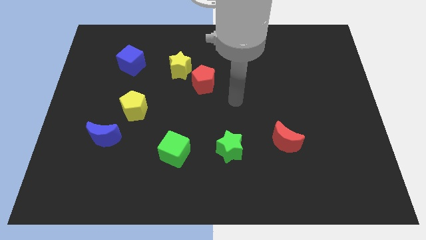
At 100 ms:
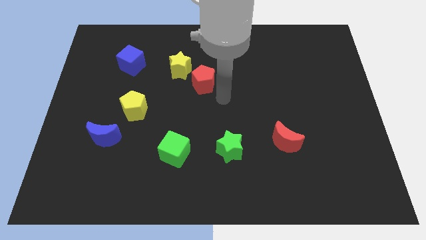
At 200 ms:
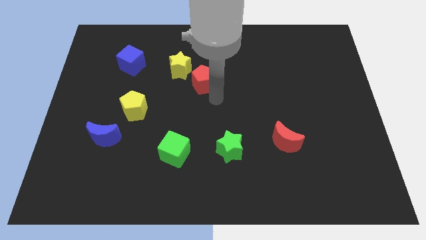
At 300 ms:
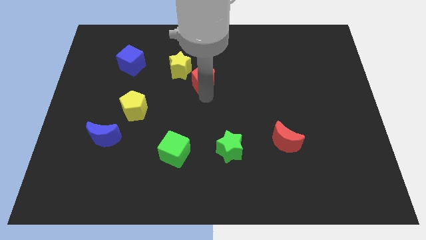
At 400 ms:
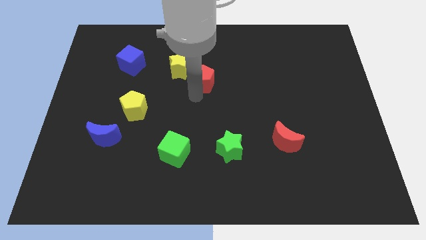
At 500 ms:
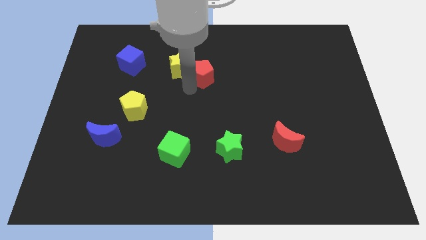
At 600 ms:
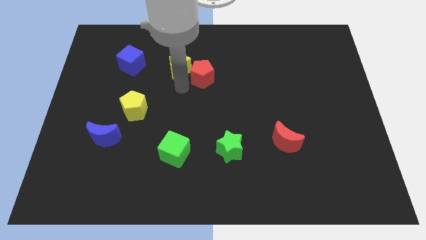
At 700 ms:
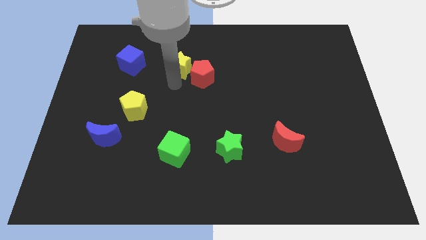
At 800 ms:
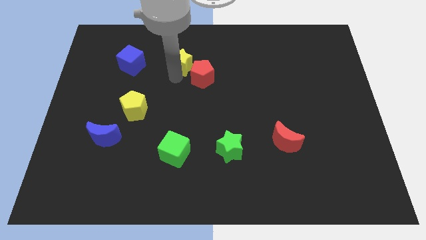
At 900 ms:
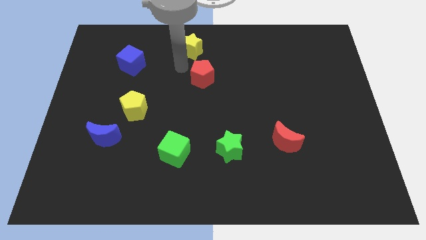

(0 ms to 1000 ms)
pull the red pentagon apart from the yellow star

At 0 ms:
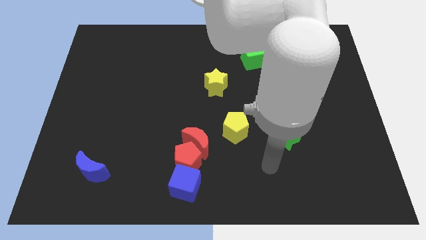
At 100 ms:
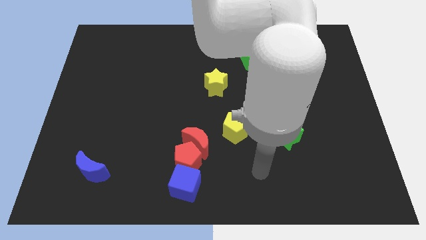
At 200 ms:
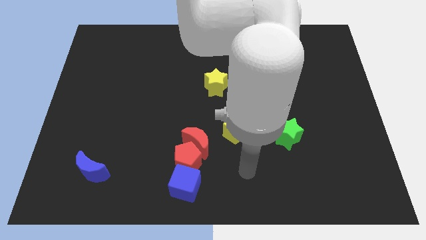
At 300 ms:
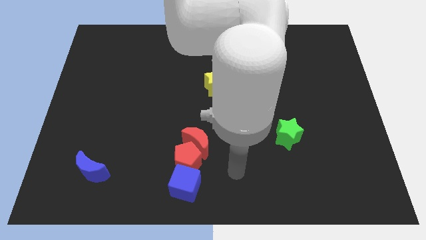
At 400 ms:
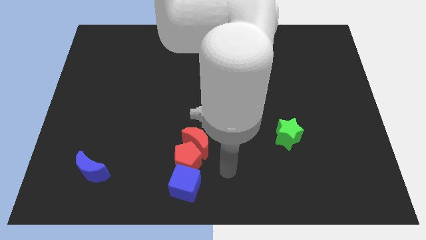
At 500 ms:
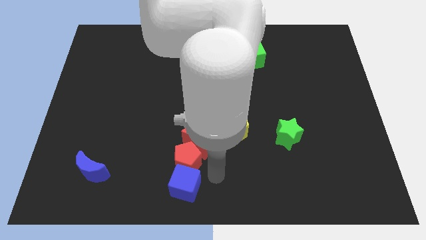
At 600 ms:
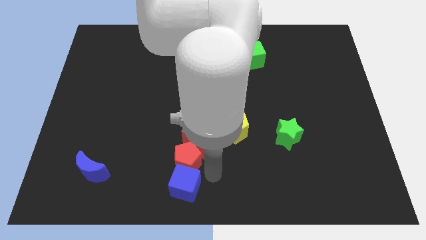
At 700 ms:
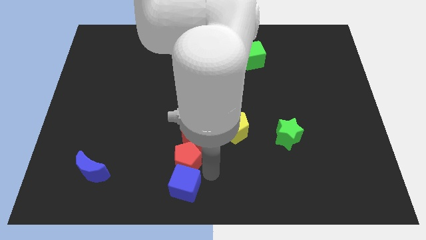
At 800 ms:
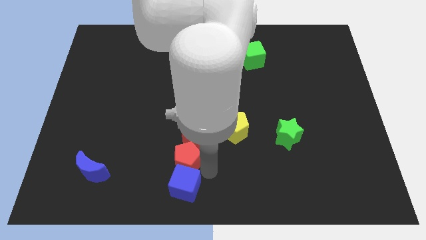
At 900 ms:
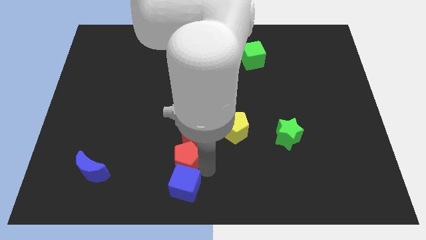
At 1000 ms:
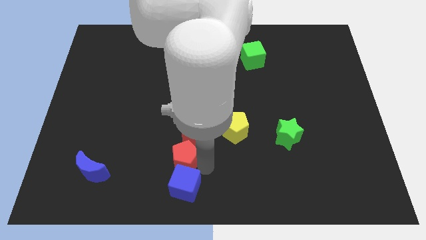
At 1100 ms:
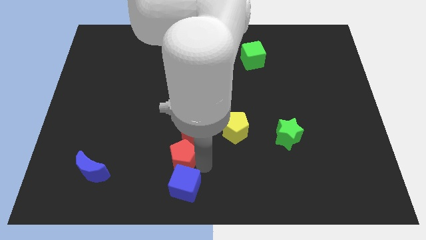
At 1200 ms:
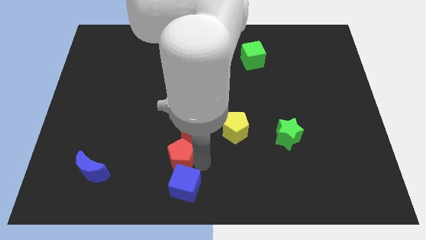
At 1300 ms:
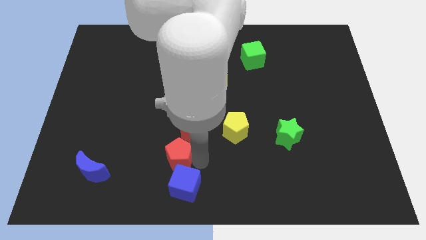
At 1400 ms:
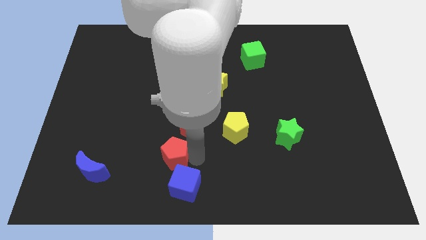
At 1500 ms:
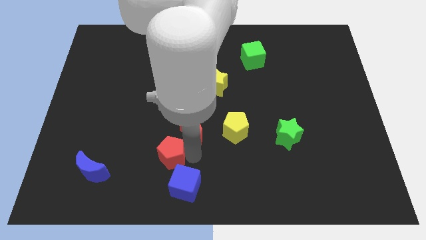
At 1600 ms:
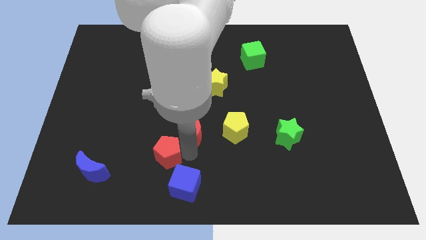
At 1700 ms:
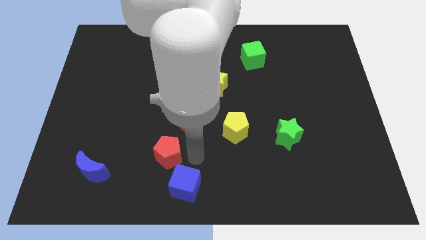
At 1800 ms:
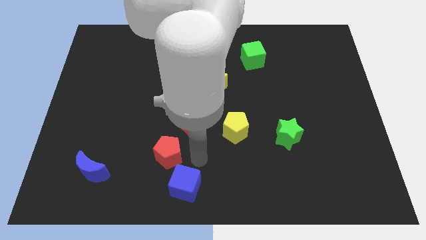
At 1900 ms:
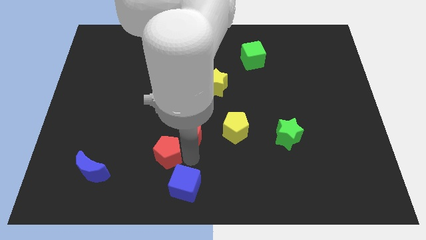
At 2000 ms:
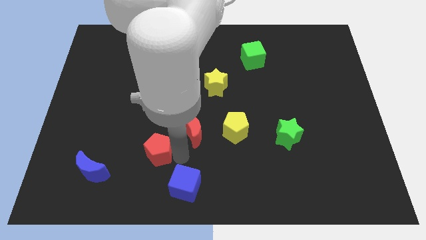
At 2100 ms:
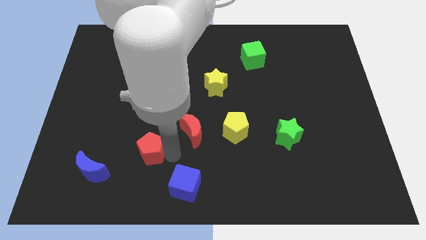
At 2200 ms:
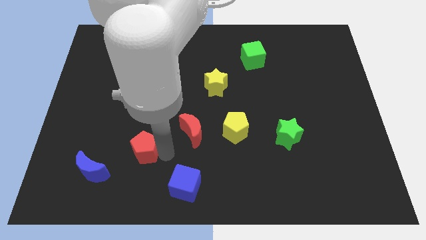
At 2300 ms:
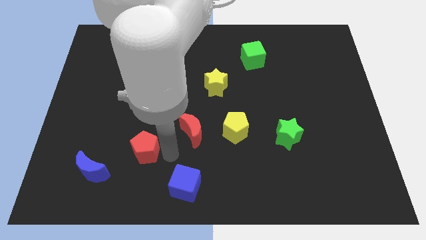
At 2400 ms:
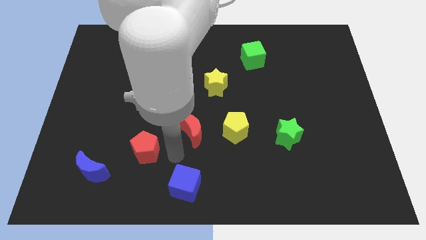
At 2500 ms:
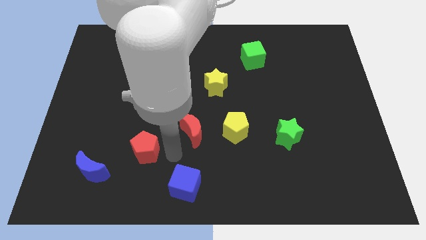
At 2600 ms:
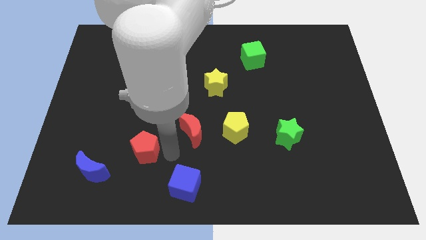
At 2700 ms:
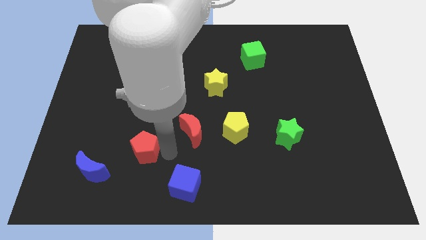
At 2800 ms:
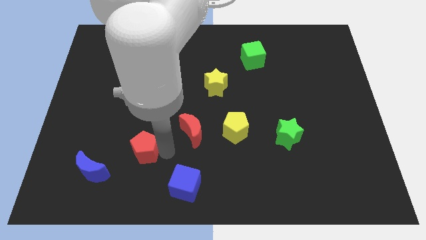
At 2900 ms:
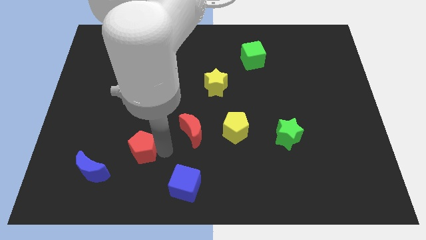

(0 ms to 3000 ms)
move the red pentagon away from the red moon and blue cube

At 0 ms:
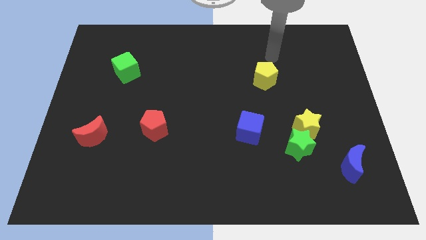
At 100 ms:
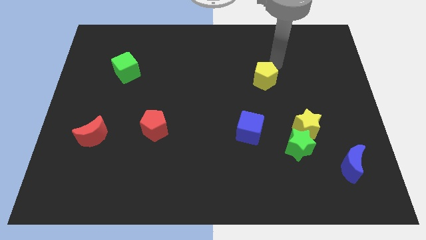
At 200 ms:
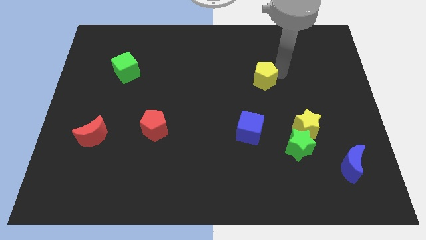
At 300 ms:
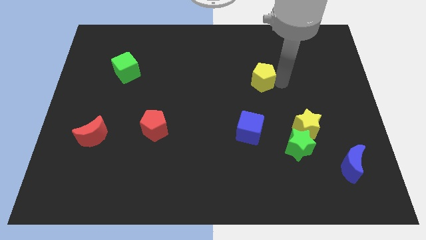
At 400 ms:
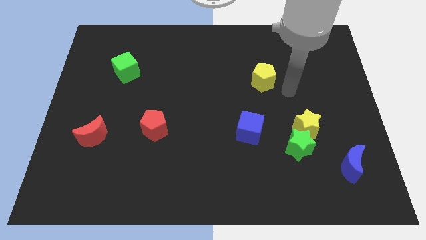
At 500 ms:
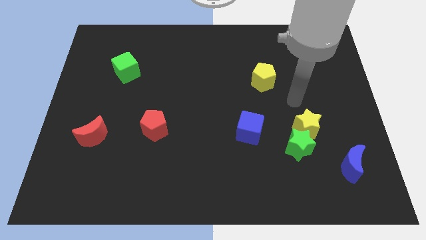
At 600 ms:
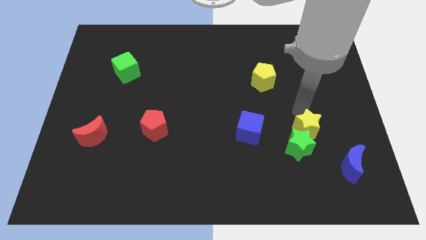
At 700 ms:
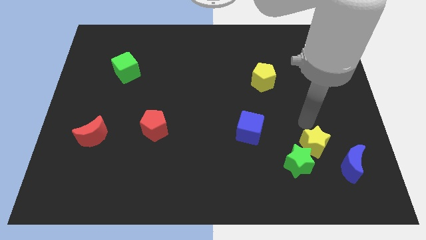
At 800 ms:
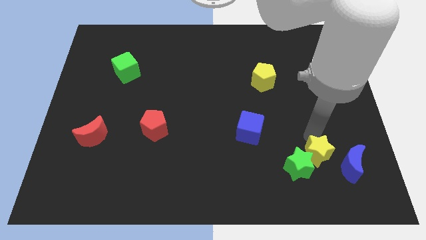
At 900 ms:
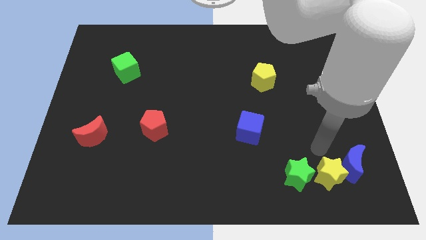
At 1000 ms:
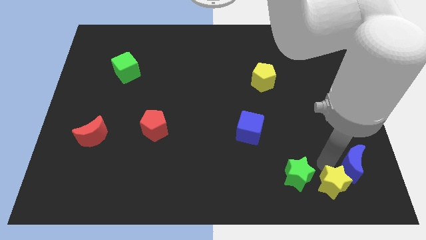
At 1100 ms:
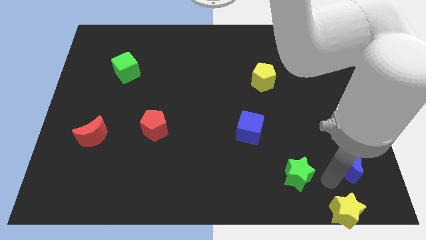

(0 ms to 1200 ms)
move the green star away from the yellow star

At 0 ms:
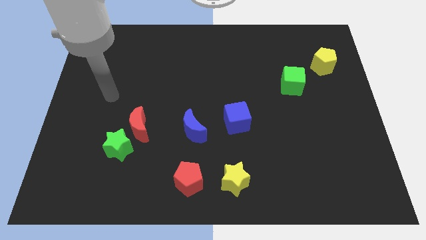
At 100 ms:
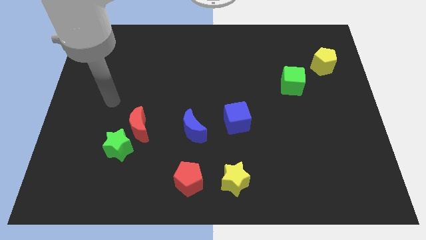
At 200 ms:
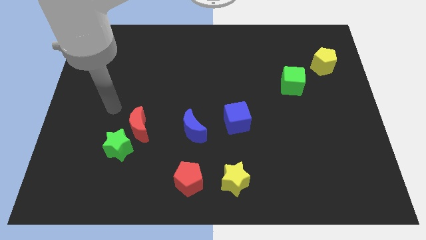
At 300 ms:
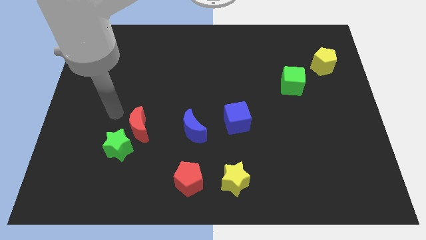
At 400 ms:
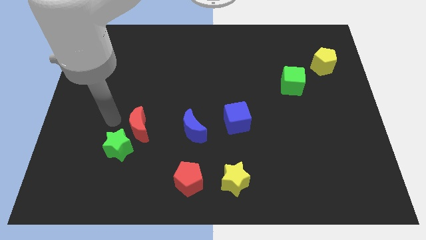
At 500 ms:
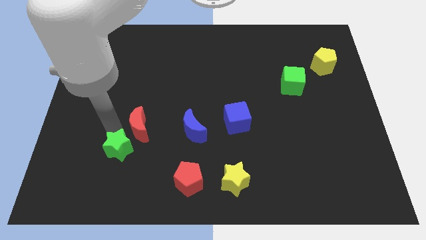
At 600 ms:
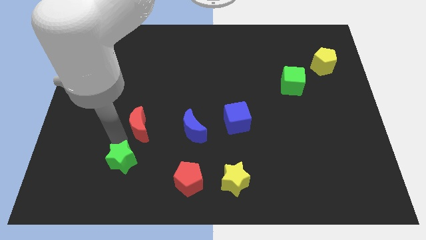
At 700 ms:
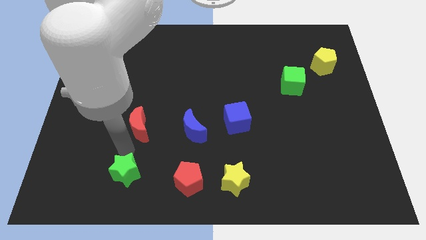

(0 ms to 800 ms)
move the red moon away from the green star

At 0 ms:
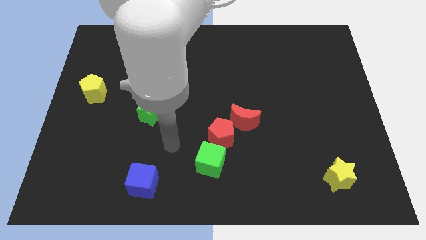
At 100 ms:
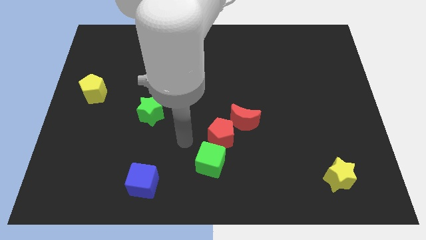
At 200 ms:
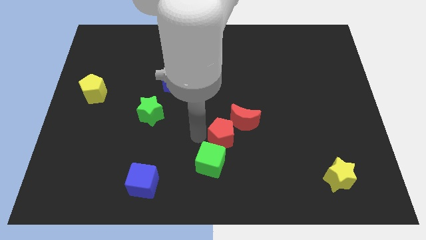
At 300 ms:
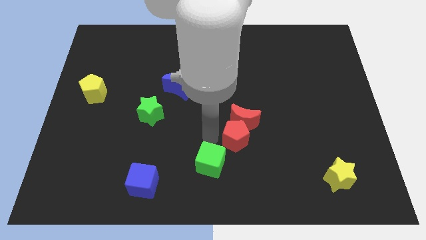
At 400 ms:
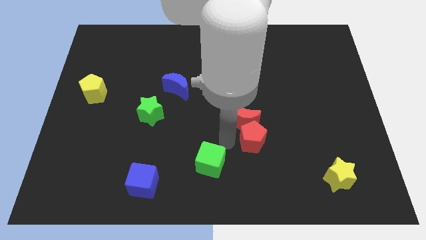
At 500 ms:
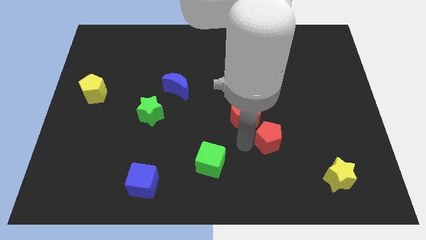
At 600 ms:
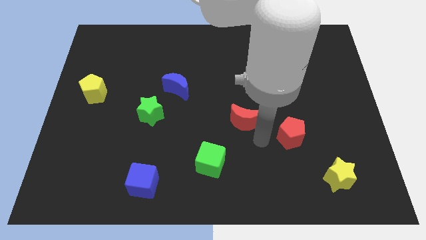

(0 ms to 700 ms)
separate the red moon from the red pentagon

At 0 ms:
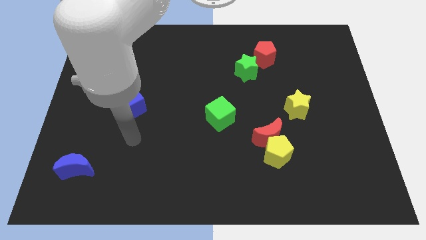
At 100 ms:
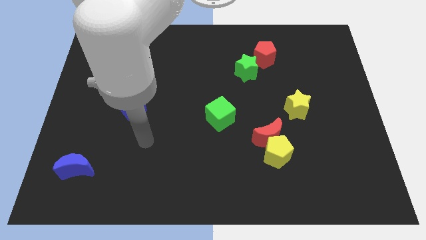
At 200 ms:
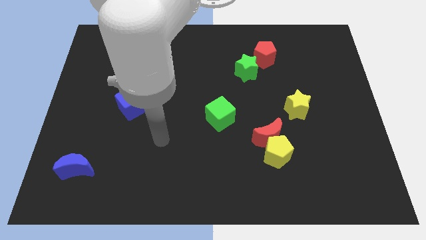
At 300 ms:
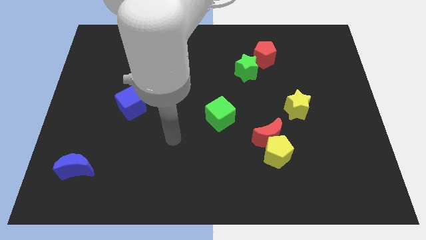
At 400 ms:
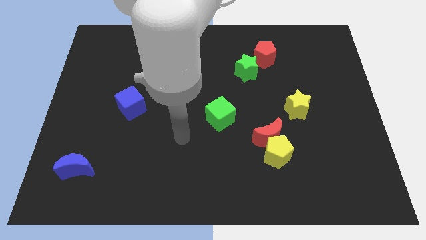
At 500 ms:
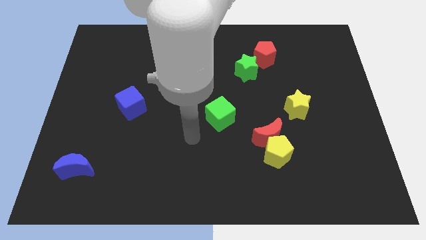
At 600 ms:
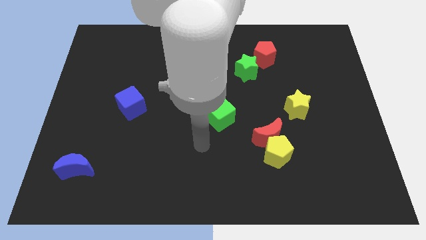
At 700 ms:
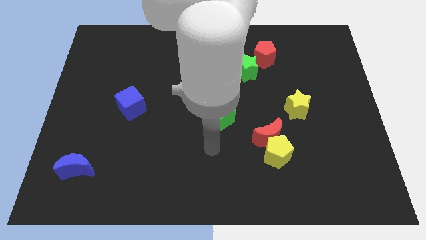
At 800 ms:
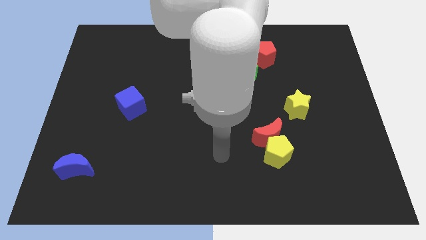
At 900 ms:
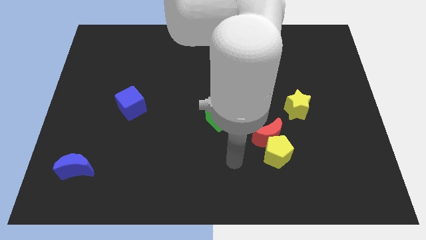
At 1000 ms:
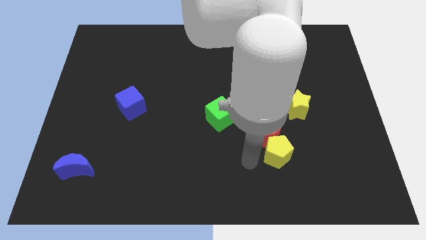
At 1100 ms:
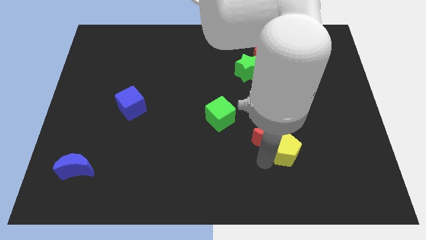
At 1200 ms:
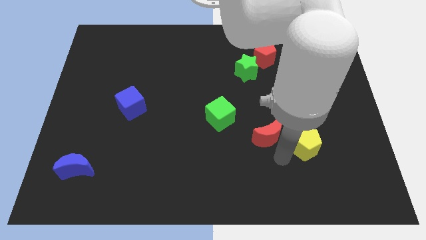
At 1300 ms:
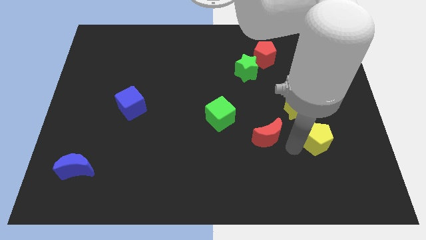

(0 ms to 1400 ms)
move the red moon away from the yellow pentagon

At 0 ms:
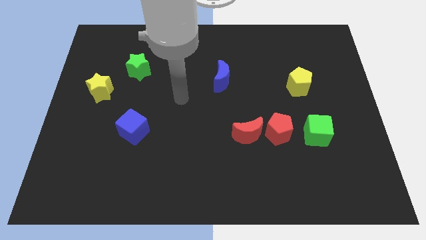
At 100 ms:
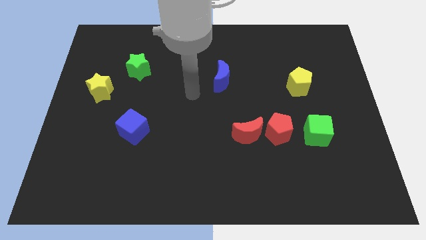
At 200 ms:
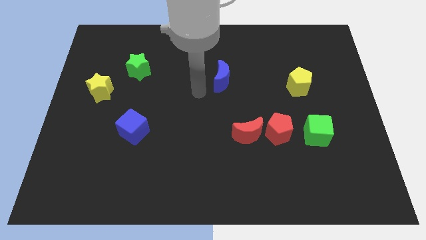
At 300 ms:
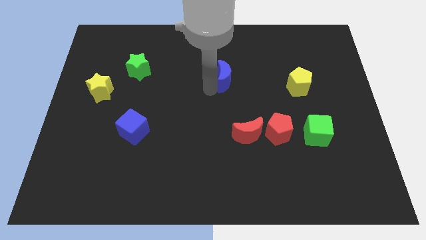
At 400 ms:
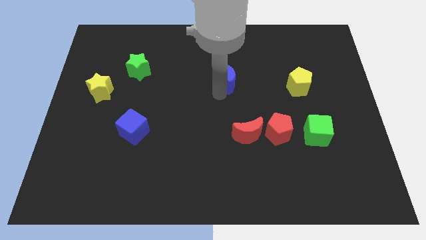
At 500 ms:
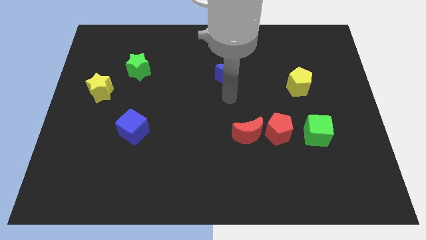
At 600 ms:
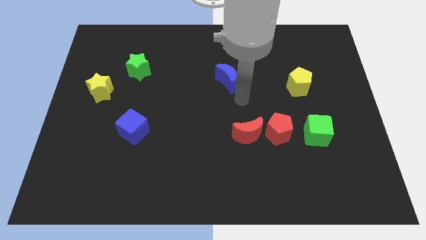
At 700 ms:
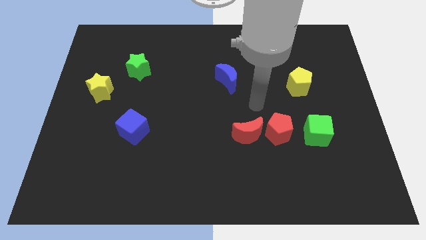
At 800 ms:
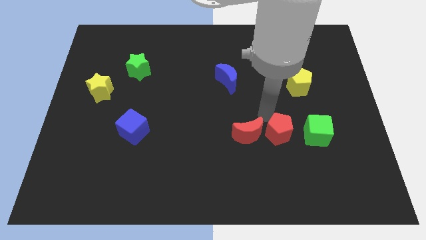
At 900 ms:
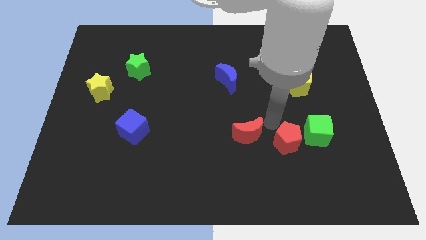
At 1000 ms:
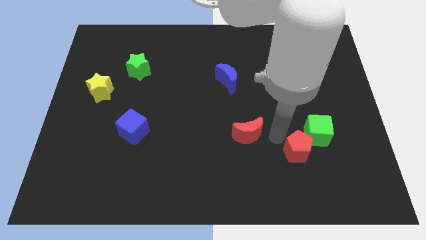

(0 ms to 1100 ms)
pull the red moon apart from the red pentagon
